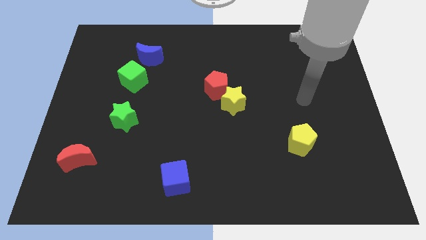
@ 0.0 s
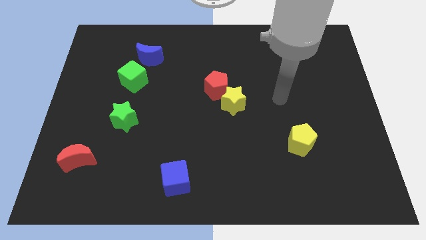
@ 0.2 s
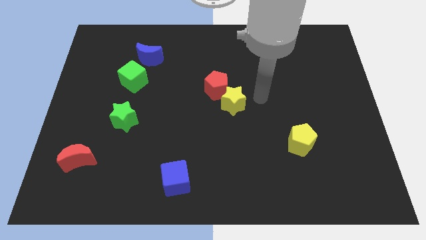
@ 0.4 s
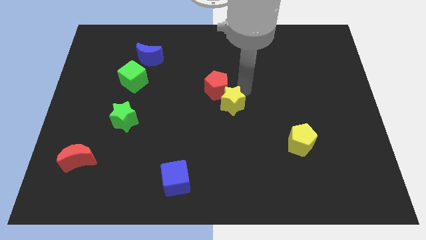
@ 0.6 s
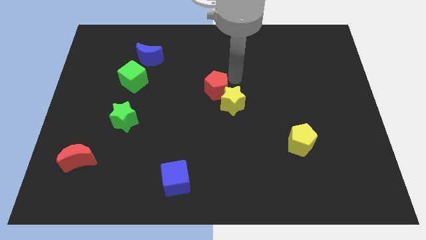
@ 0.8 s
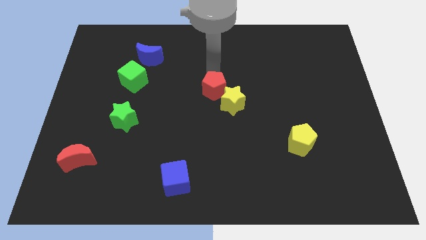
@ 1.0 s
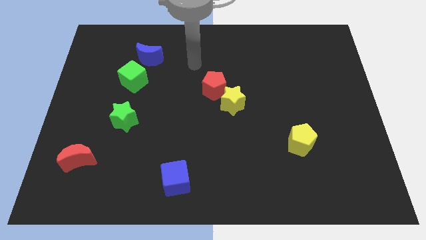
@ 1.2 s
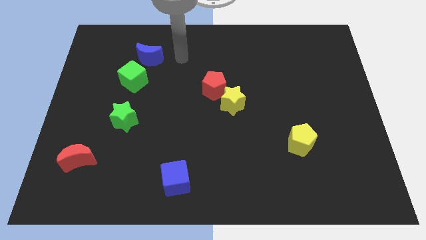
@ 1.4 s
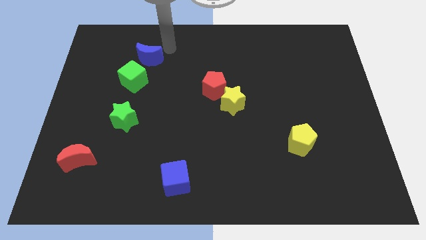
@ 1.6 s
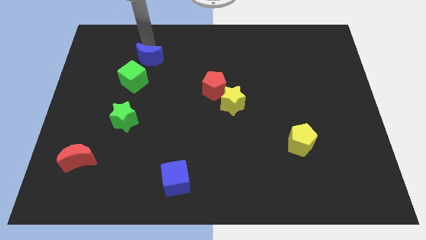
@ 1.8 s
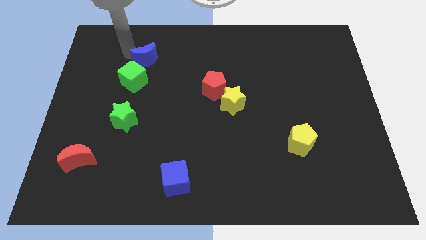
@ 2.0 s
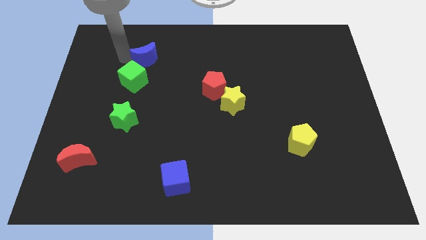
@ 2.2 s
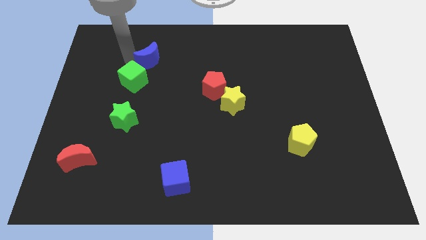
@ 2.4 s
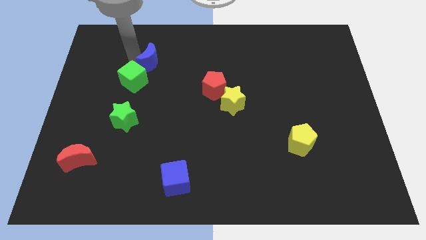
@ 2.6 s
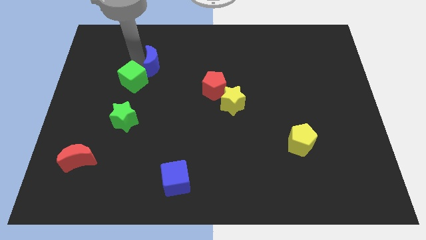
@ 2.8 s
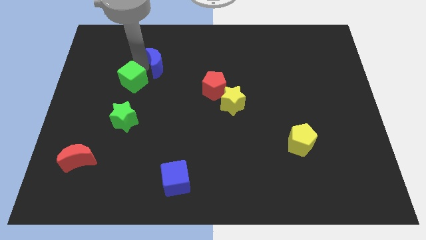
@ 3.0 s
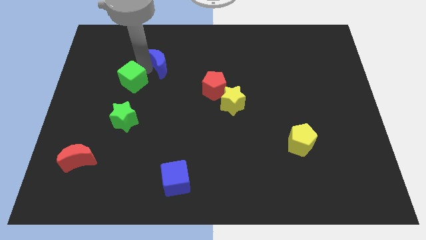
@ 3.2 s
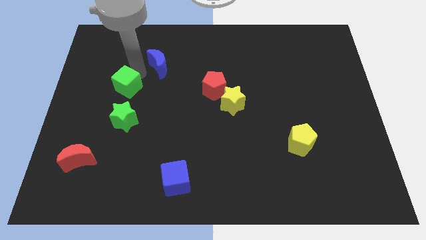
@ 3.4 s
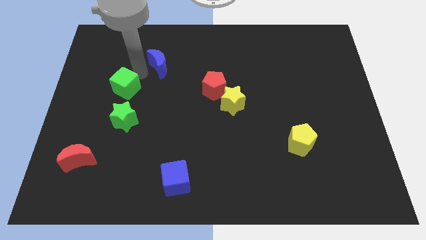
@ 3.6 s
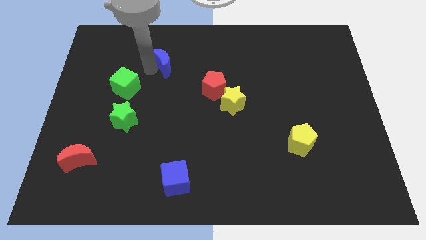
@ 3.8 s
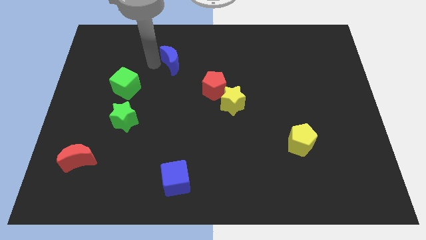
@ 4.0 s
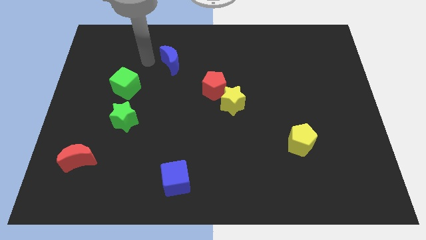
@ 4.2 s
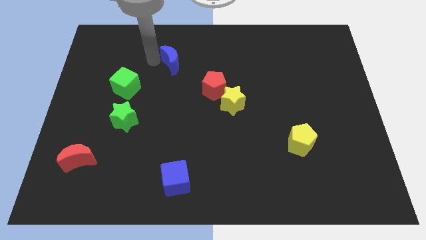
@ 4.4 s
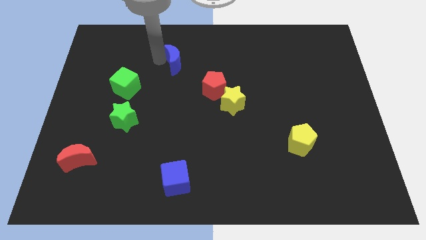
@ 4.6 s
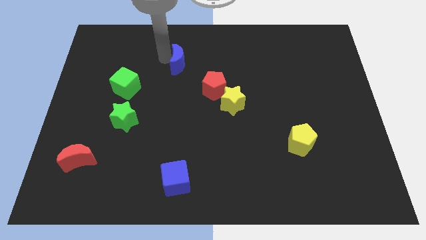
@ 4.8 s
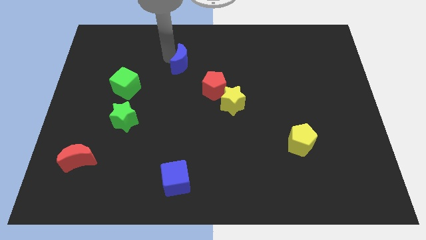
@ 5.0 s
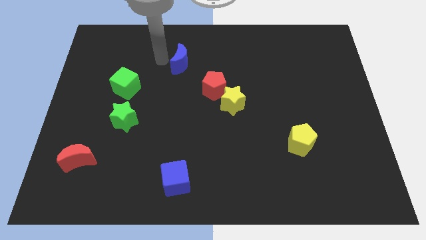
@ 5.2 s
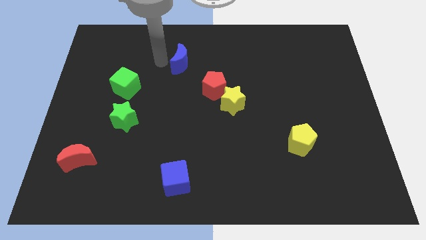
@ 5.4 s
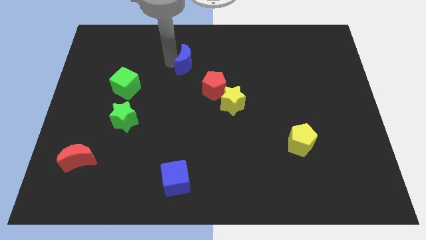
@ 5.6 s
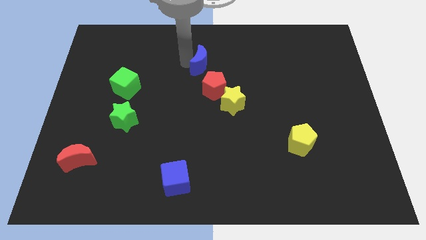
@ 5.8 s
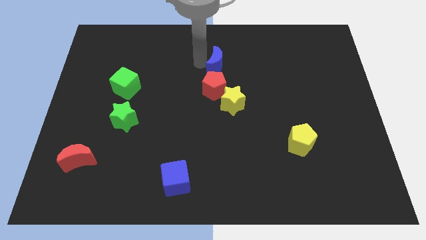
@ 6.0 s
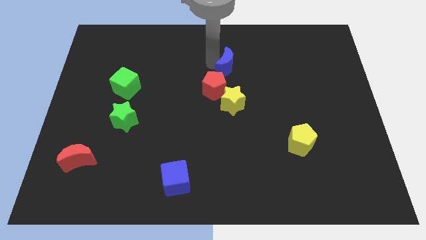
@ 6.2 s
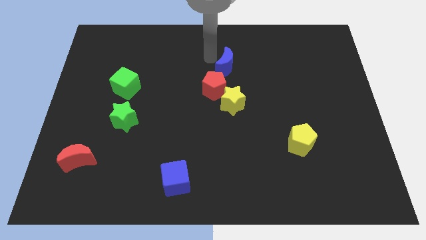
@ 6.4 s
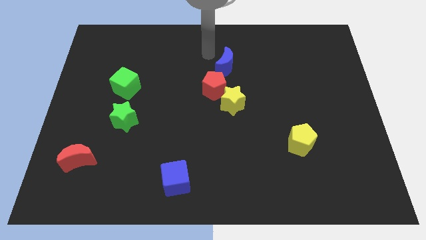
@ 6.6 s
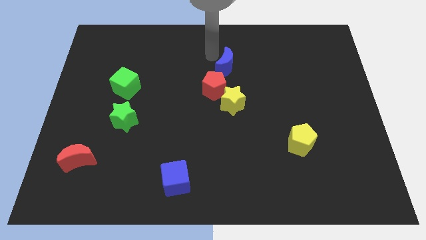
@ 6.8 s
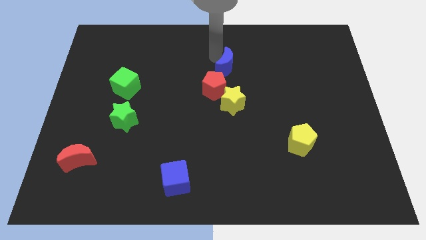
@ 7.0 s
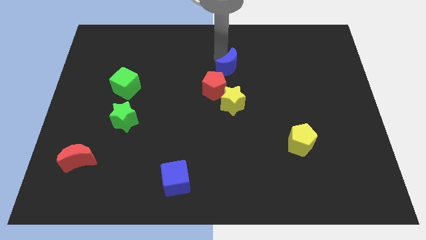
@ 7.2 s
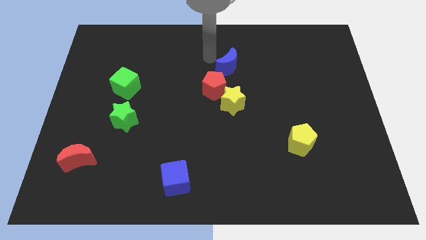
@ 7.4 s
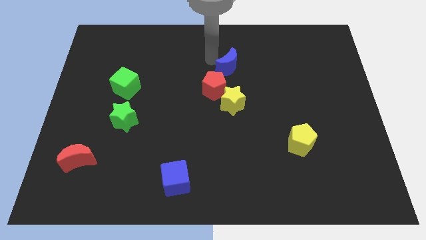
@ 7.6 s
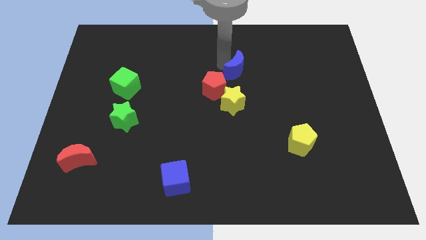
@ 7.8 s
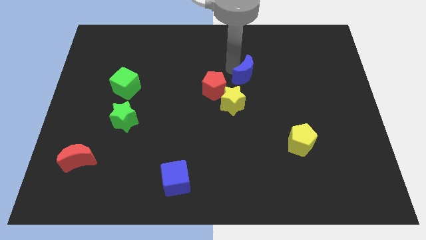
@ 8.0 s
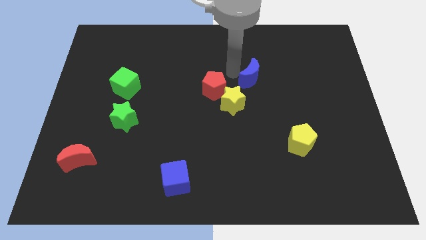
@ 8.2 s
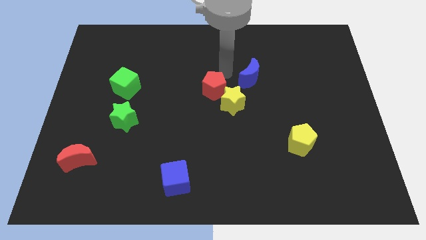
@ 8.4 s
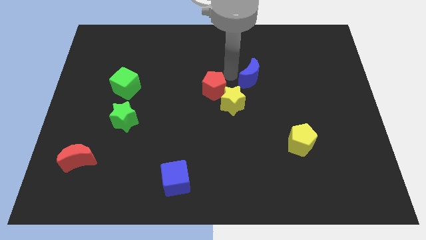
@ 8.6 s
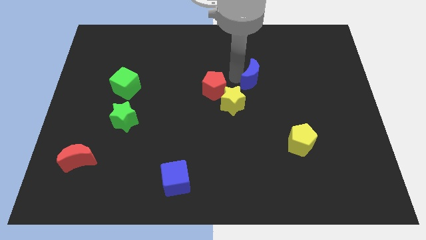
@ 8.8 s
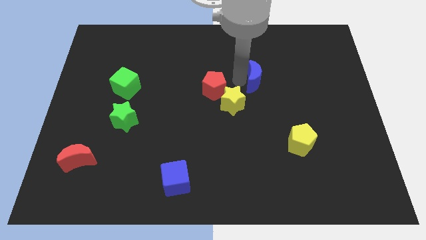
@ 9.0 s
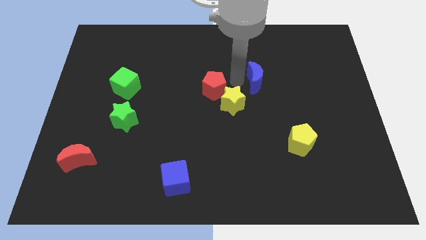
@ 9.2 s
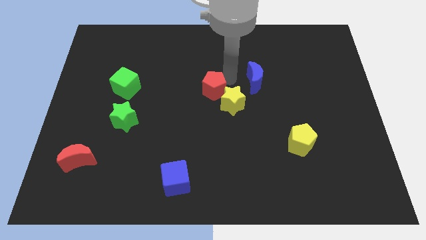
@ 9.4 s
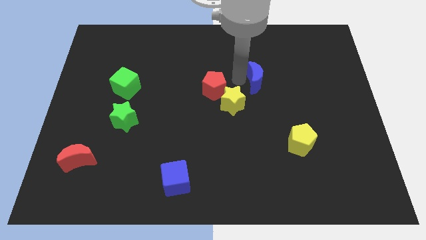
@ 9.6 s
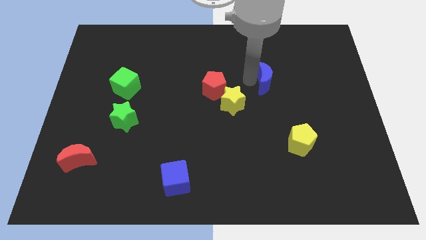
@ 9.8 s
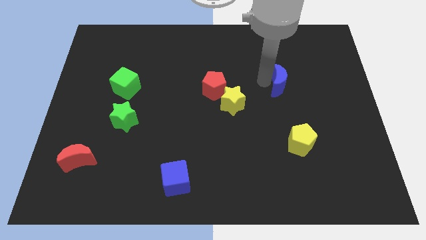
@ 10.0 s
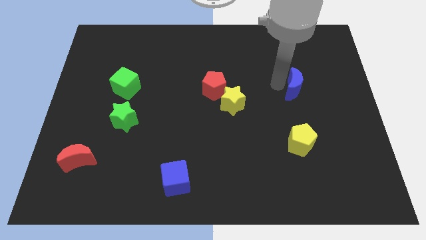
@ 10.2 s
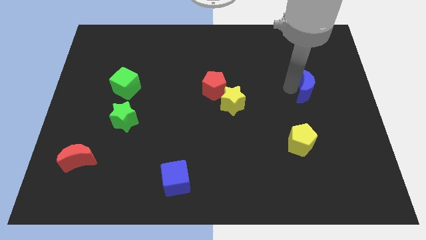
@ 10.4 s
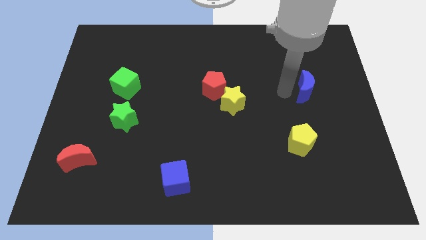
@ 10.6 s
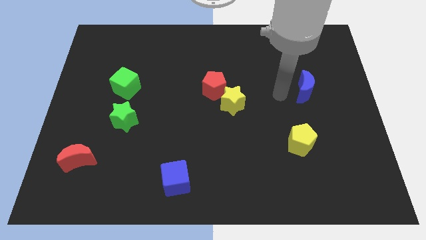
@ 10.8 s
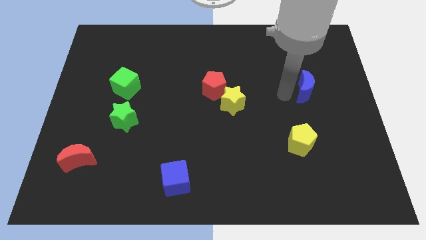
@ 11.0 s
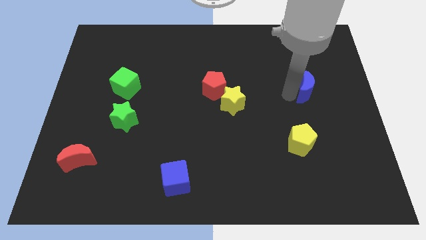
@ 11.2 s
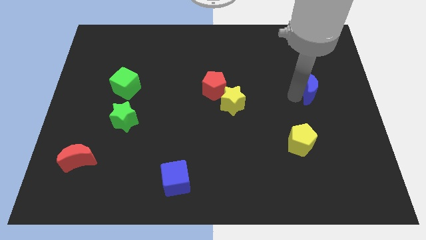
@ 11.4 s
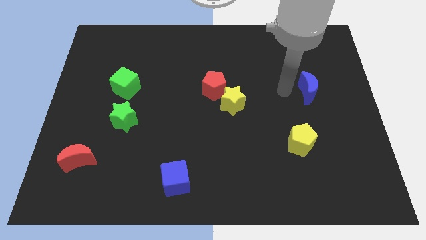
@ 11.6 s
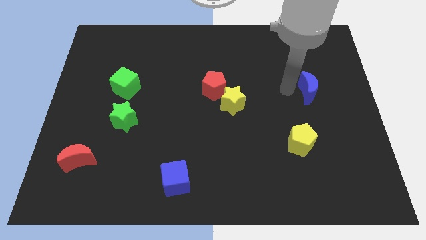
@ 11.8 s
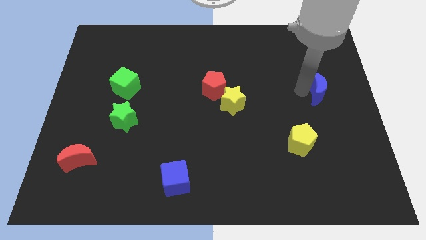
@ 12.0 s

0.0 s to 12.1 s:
move the blue moon to the right side
